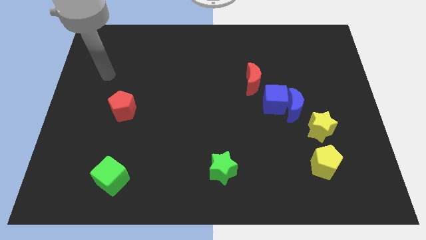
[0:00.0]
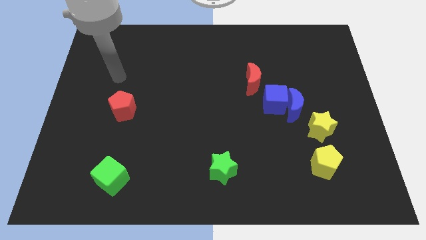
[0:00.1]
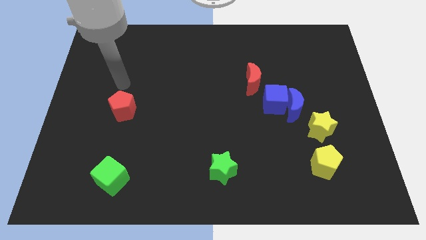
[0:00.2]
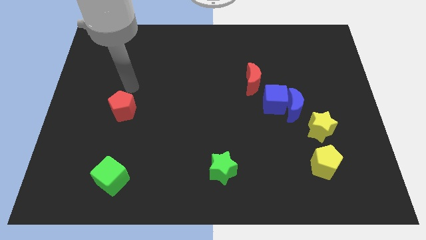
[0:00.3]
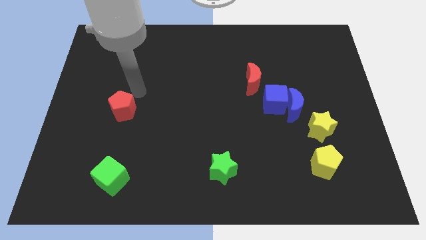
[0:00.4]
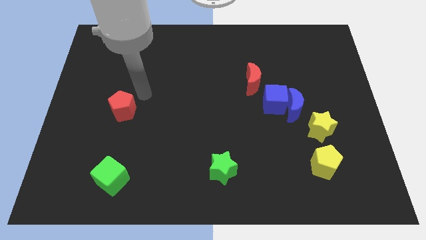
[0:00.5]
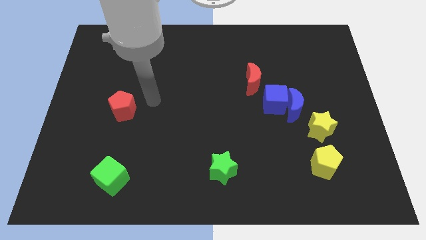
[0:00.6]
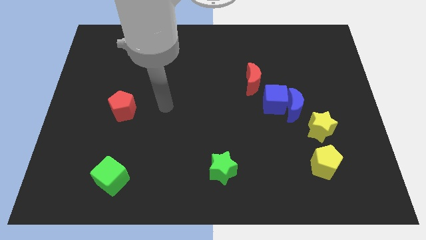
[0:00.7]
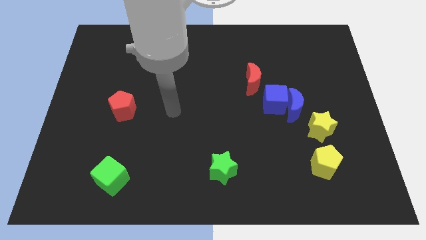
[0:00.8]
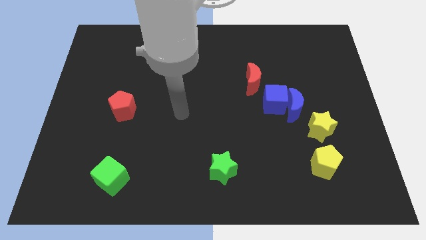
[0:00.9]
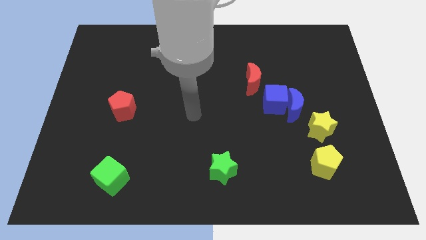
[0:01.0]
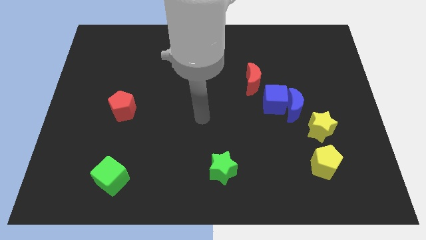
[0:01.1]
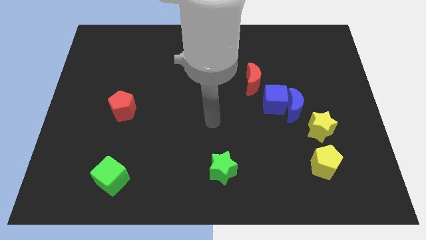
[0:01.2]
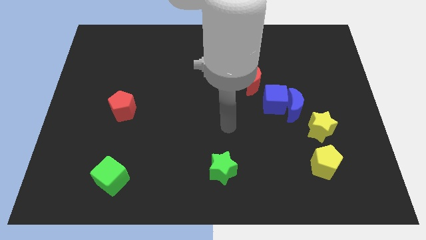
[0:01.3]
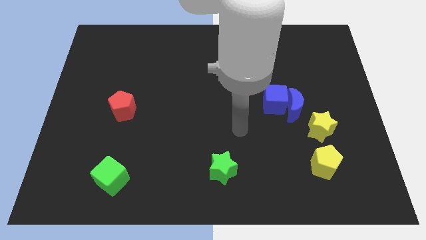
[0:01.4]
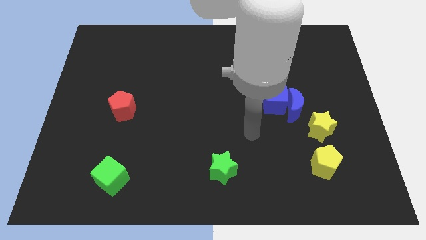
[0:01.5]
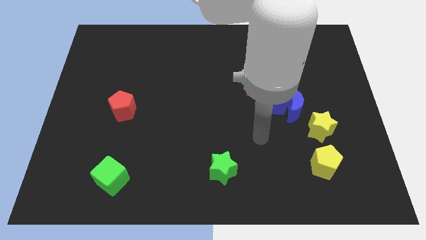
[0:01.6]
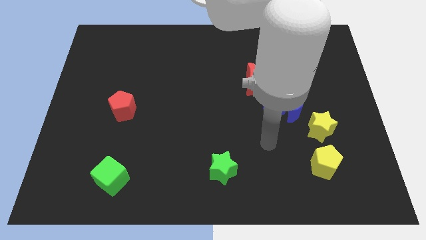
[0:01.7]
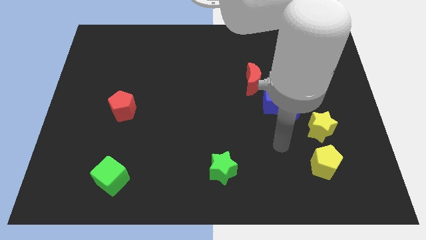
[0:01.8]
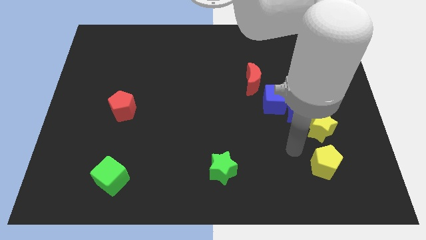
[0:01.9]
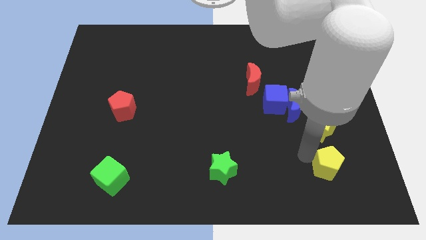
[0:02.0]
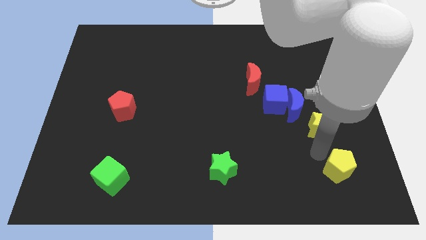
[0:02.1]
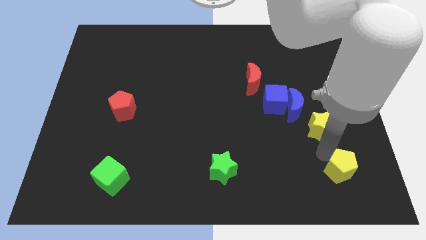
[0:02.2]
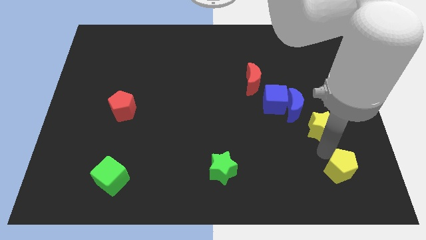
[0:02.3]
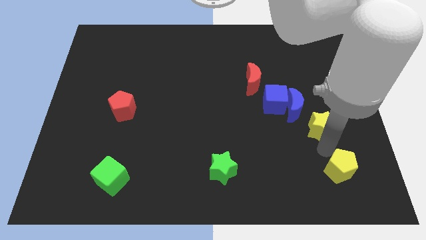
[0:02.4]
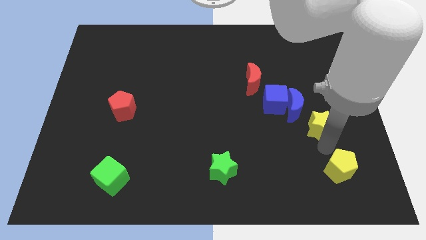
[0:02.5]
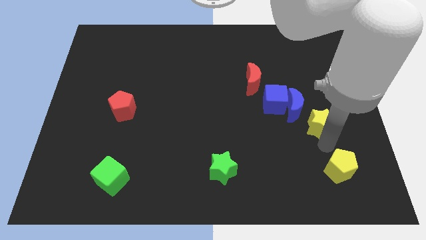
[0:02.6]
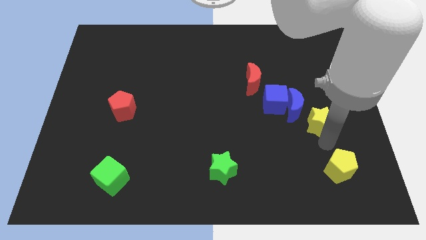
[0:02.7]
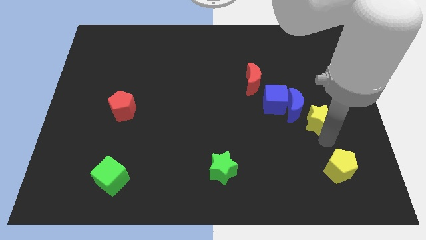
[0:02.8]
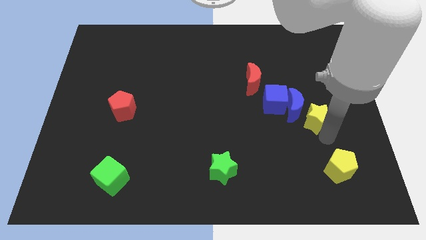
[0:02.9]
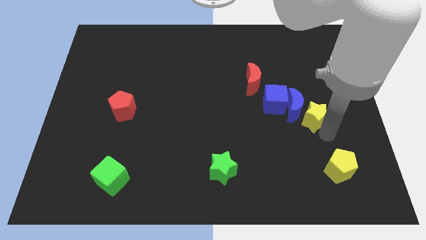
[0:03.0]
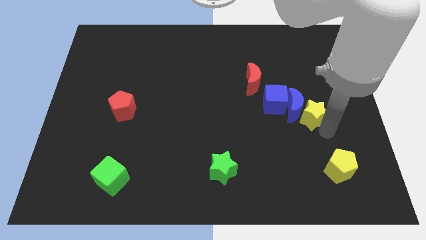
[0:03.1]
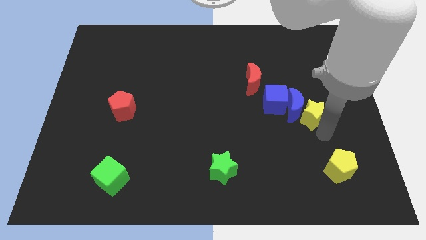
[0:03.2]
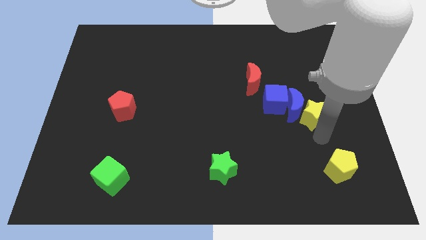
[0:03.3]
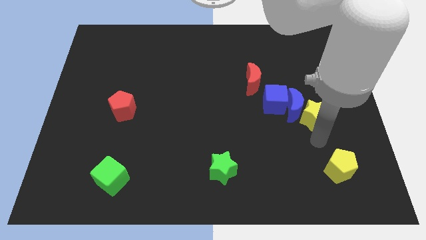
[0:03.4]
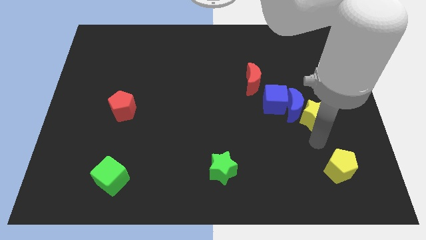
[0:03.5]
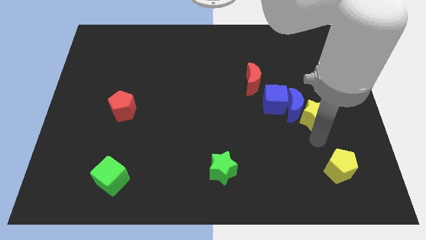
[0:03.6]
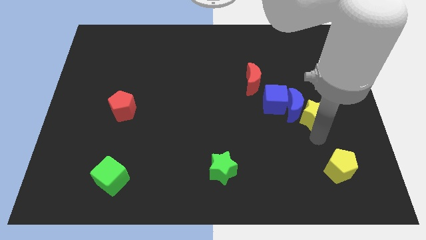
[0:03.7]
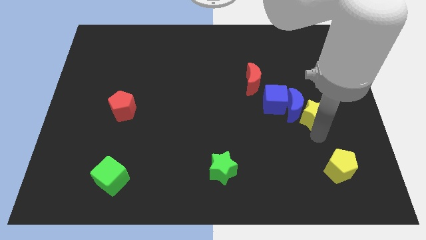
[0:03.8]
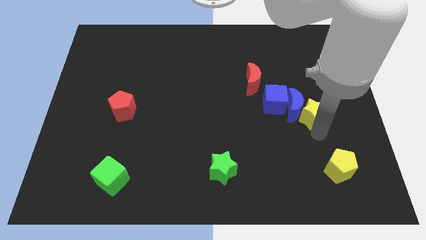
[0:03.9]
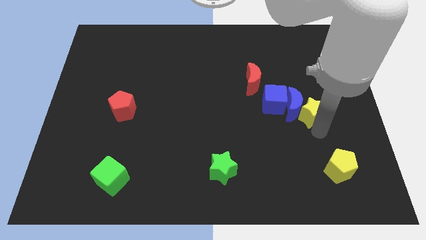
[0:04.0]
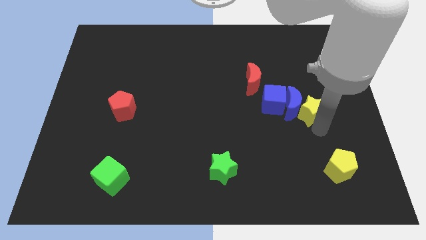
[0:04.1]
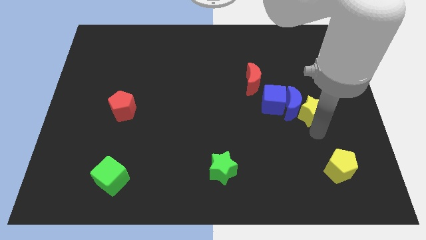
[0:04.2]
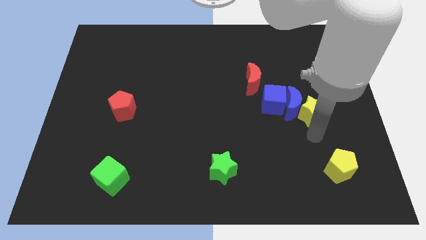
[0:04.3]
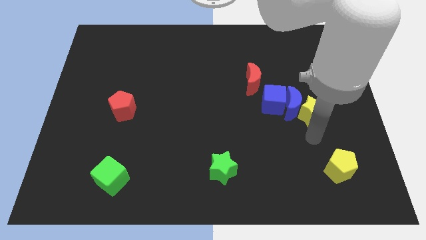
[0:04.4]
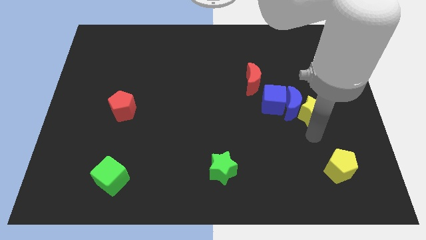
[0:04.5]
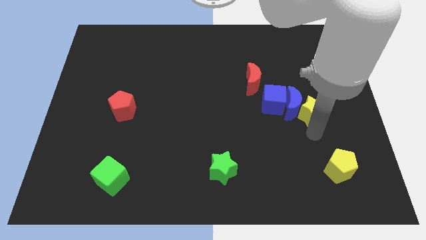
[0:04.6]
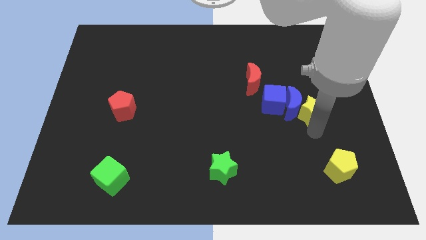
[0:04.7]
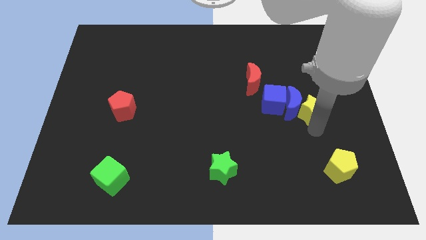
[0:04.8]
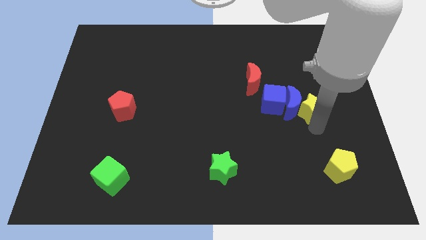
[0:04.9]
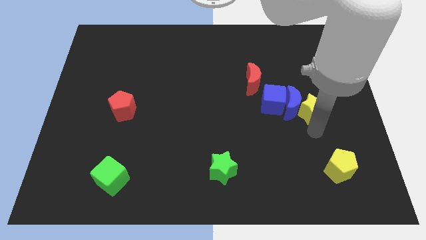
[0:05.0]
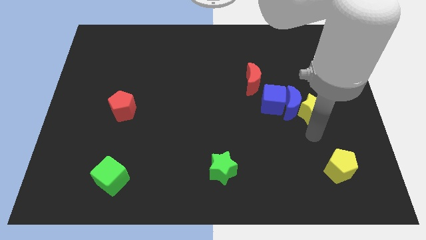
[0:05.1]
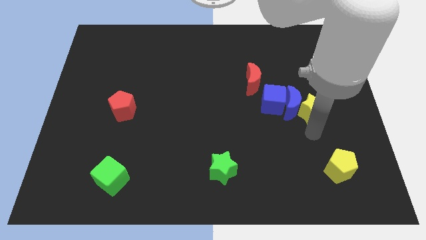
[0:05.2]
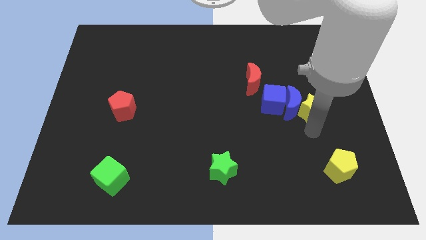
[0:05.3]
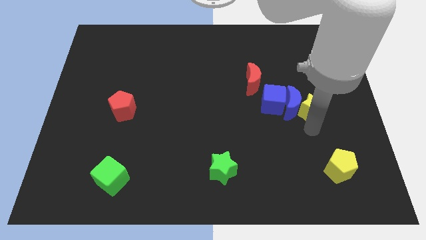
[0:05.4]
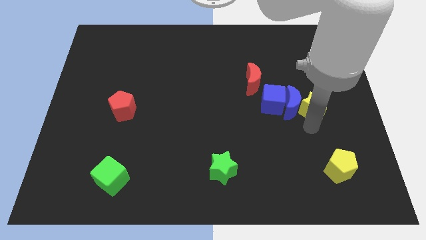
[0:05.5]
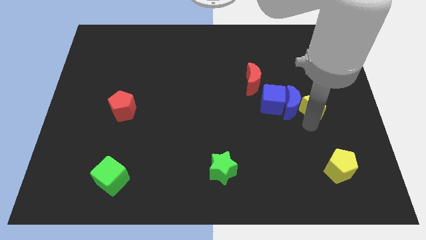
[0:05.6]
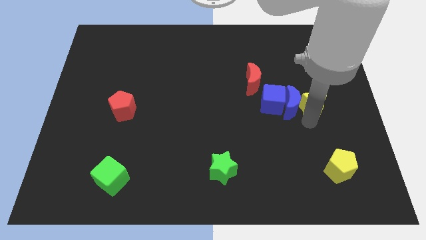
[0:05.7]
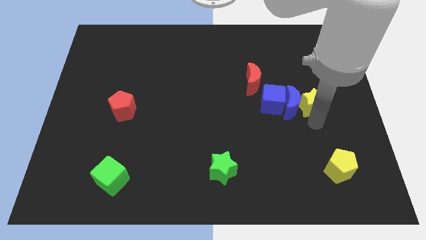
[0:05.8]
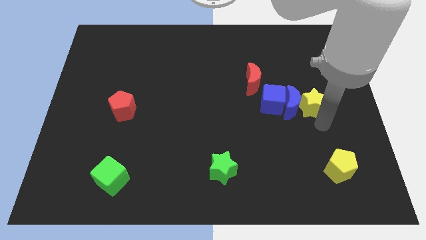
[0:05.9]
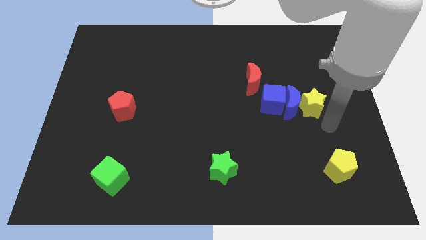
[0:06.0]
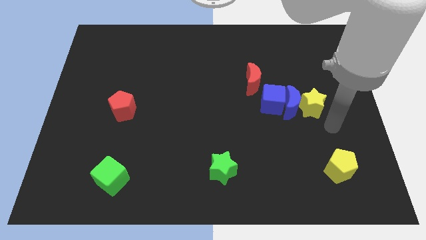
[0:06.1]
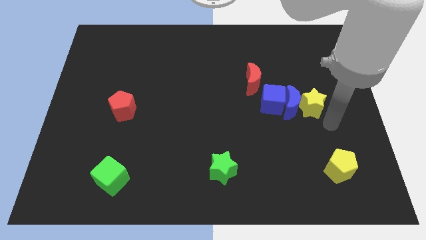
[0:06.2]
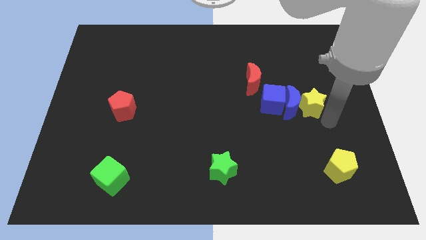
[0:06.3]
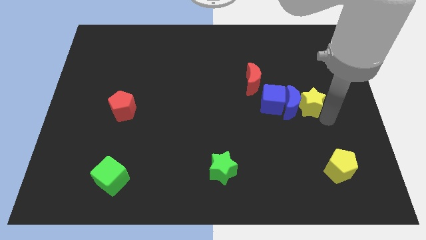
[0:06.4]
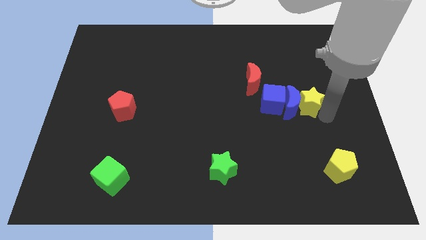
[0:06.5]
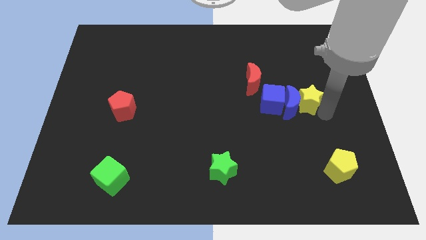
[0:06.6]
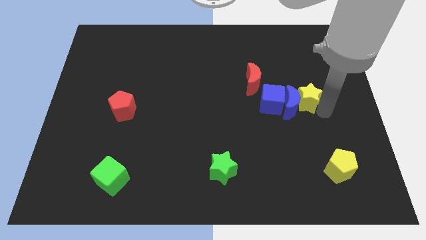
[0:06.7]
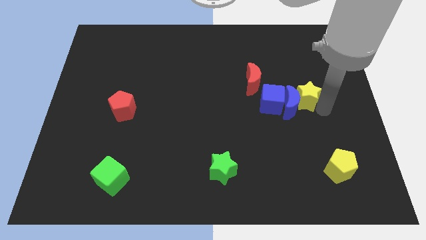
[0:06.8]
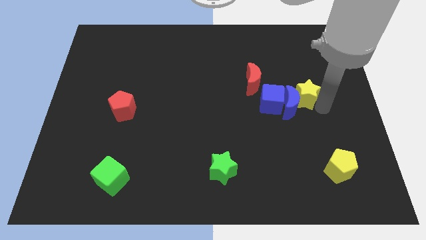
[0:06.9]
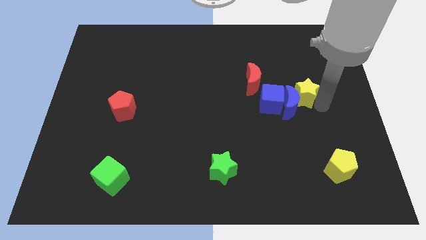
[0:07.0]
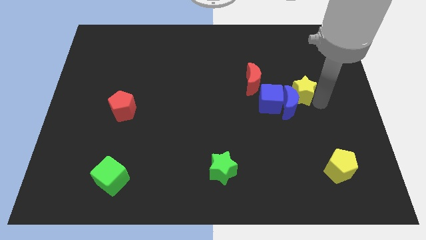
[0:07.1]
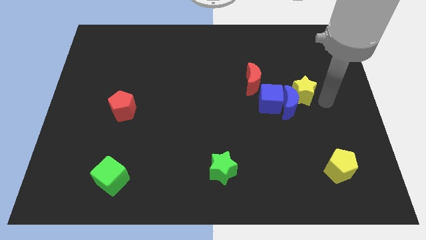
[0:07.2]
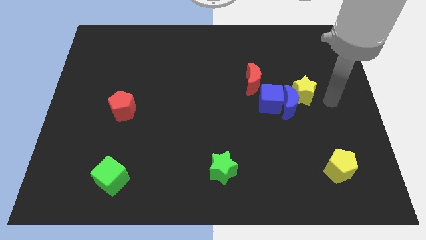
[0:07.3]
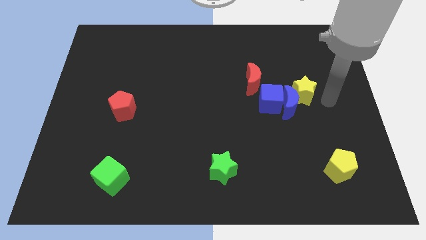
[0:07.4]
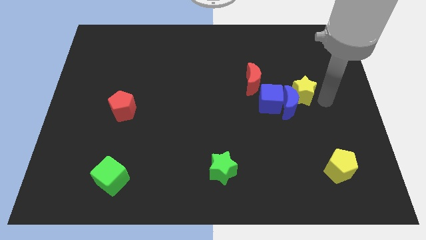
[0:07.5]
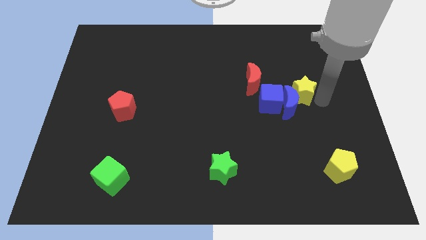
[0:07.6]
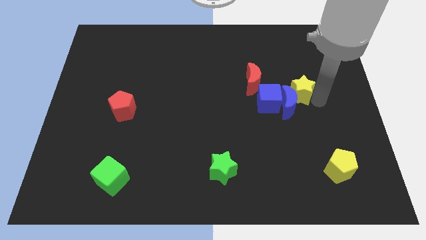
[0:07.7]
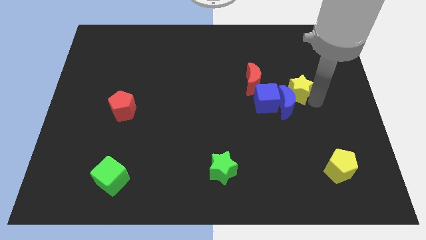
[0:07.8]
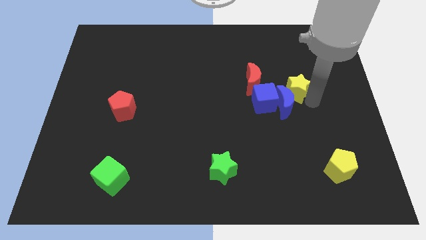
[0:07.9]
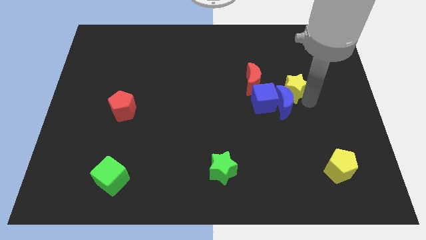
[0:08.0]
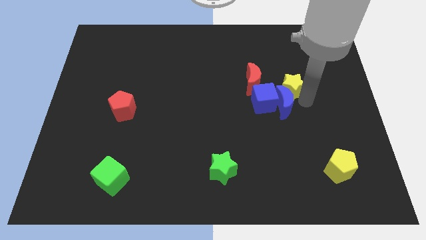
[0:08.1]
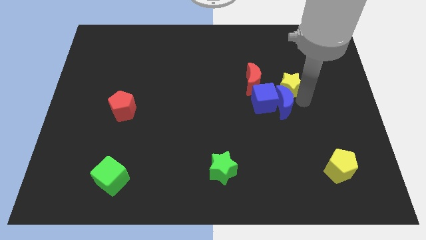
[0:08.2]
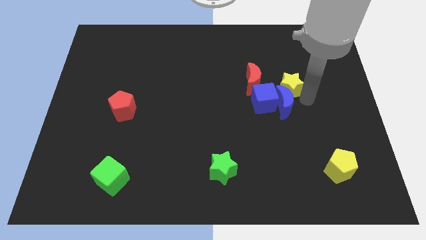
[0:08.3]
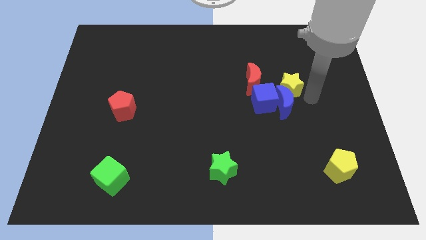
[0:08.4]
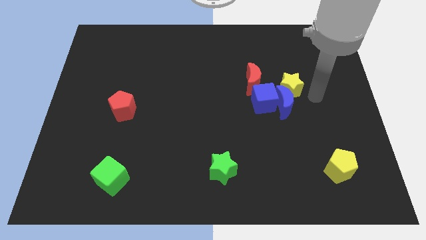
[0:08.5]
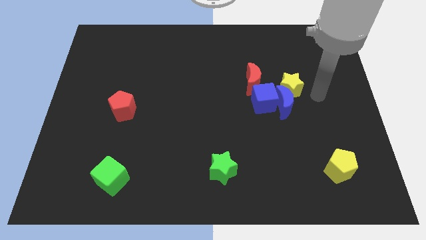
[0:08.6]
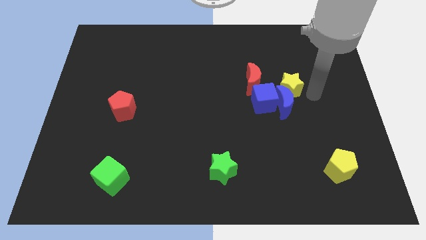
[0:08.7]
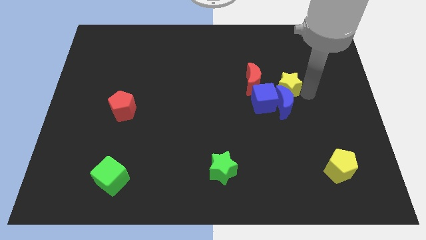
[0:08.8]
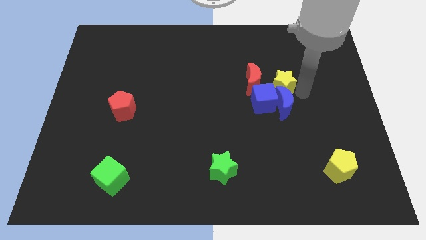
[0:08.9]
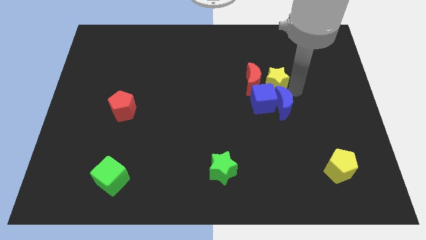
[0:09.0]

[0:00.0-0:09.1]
slide the yellow star to the red moon
